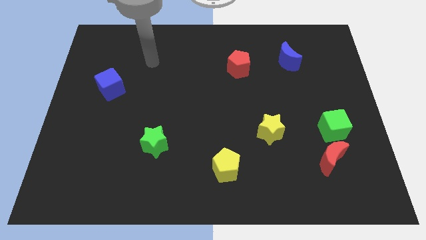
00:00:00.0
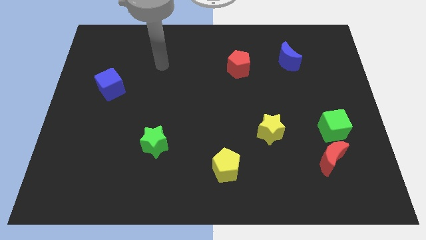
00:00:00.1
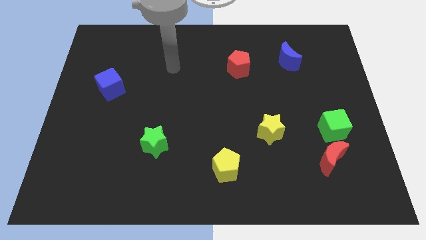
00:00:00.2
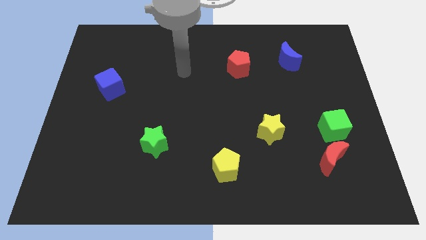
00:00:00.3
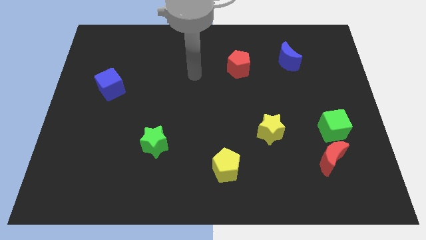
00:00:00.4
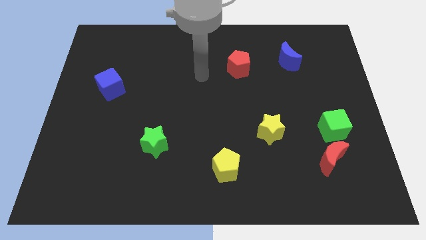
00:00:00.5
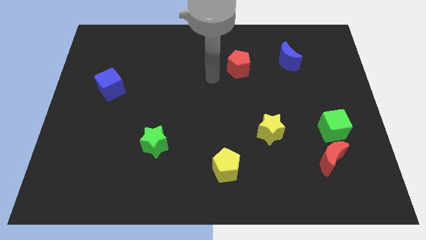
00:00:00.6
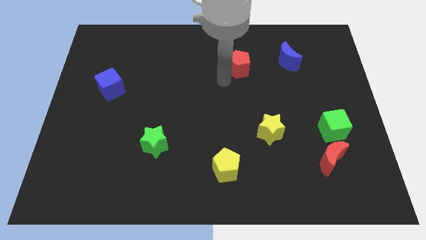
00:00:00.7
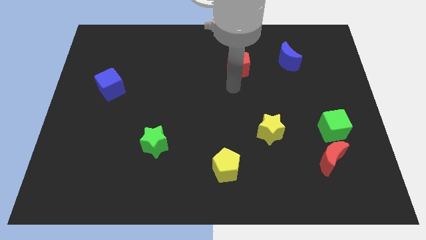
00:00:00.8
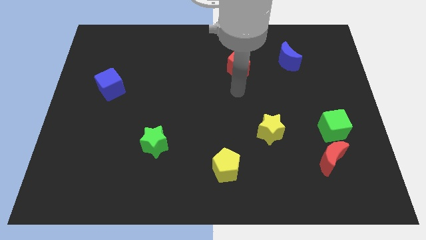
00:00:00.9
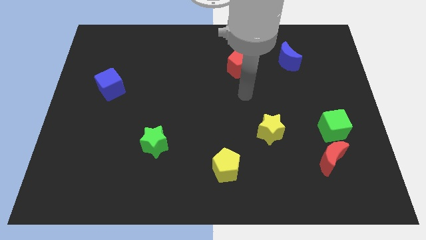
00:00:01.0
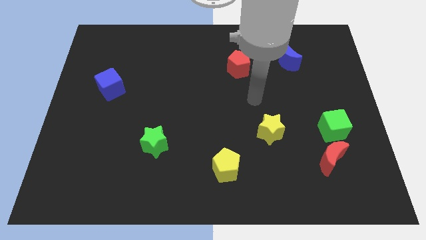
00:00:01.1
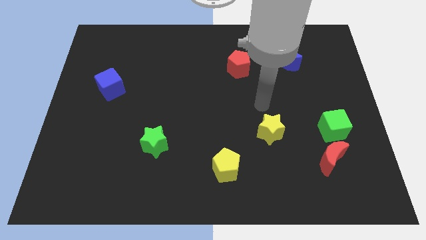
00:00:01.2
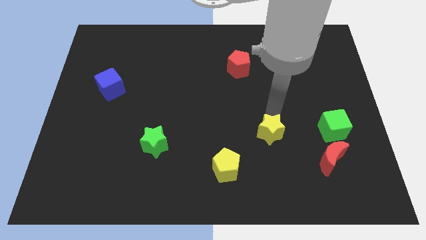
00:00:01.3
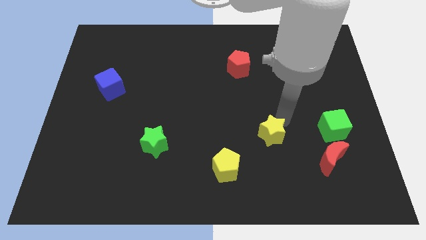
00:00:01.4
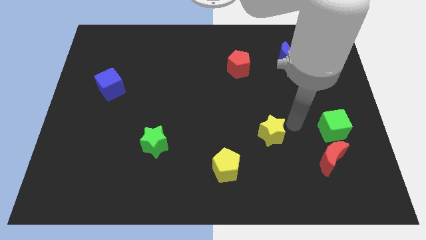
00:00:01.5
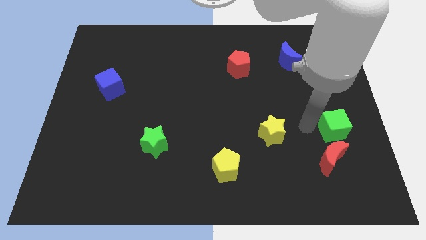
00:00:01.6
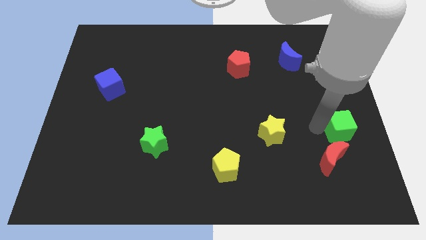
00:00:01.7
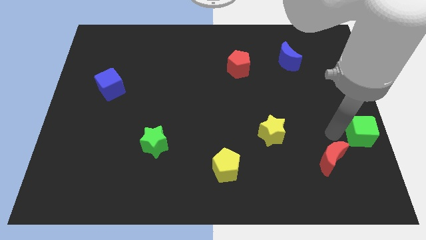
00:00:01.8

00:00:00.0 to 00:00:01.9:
pull the red moon apart from the green cube

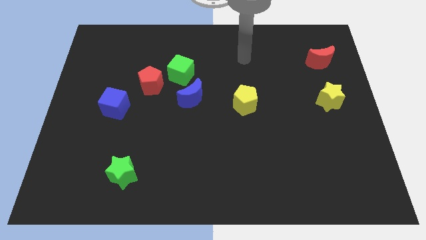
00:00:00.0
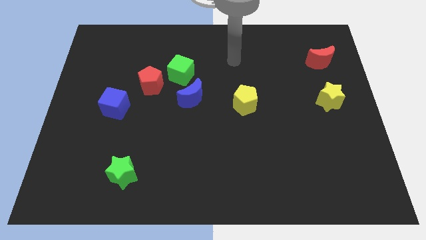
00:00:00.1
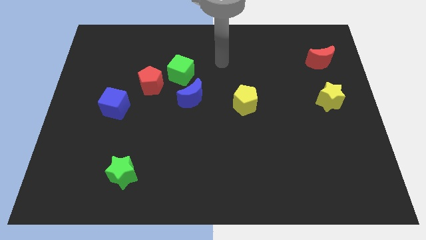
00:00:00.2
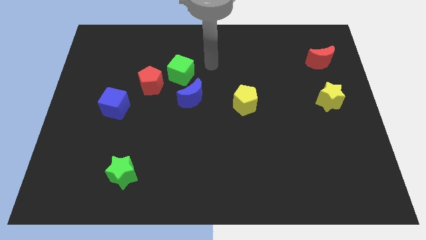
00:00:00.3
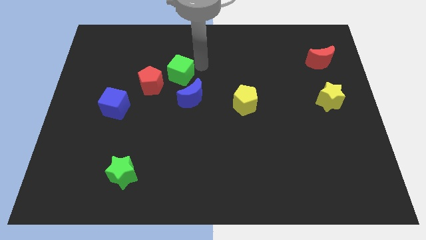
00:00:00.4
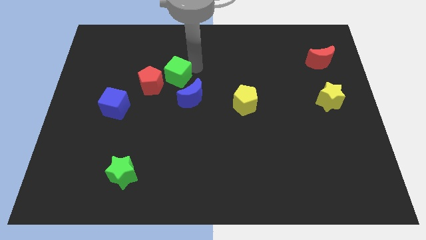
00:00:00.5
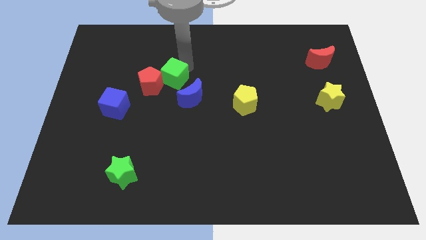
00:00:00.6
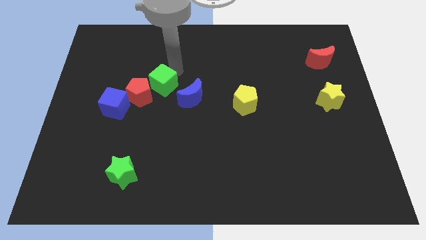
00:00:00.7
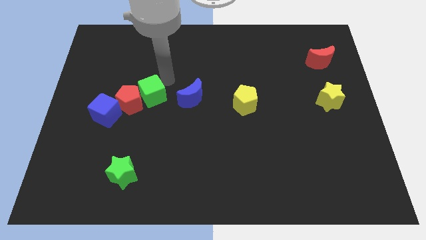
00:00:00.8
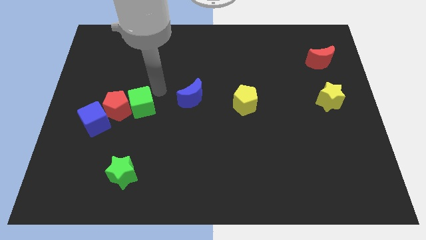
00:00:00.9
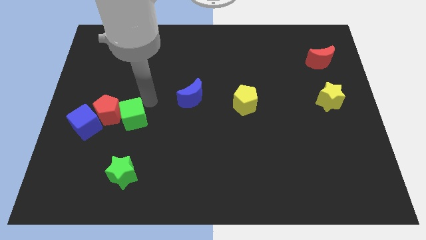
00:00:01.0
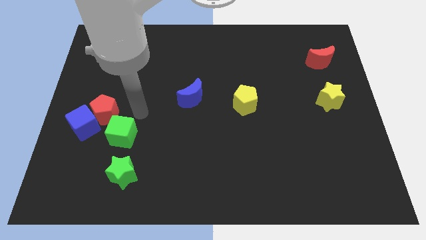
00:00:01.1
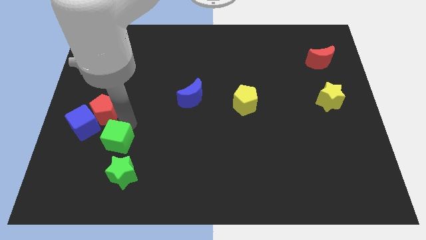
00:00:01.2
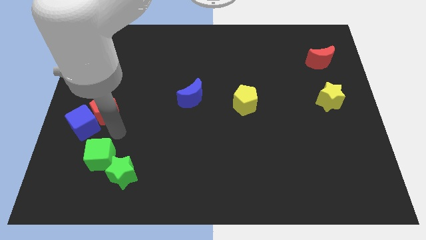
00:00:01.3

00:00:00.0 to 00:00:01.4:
separate the red pentagon from the green cube

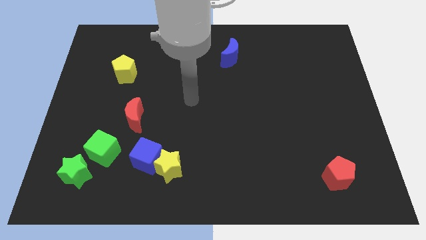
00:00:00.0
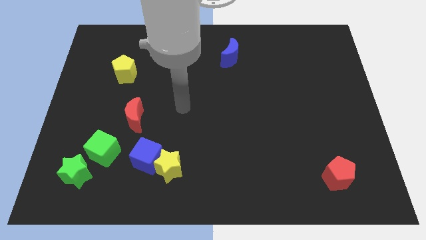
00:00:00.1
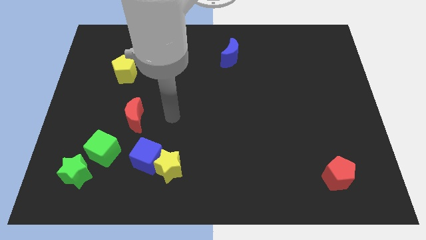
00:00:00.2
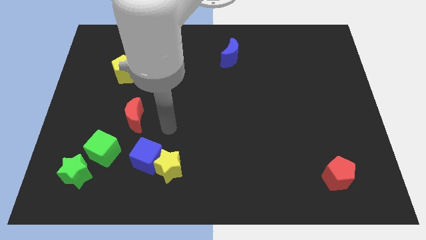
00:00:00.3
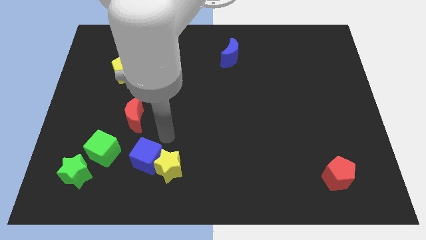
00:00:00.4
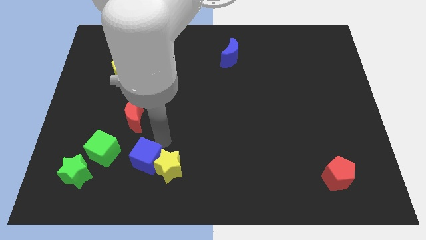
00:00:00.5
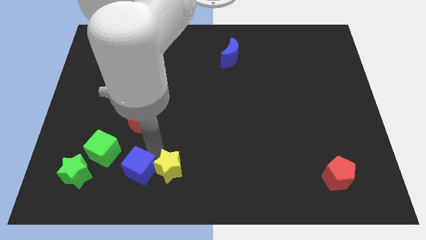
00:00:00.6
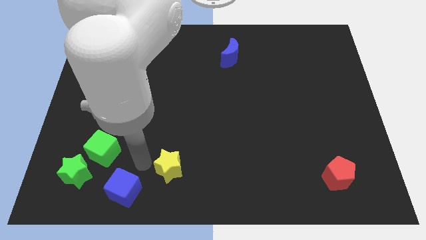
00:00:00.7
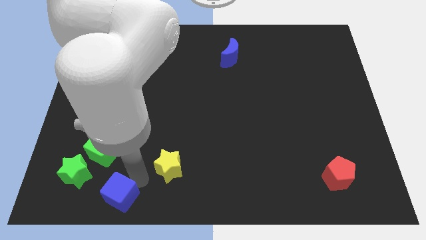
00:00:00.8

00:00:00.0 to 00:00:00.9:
separate the yellow star from the blue cube

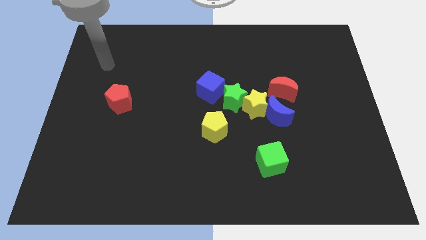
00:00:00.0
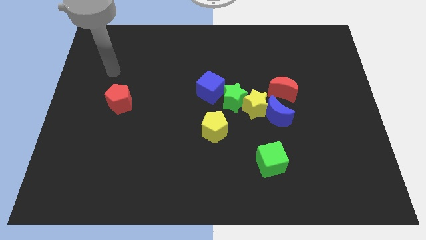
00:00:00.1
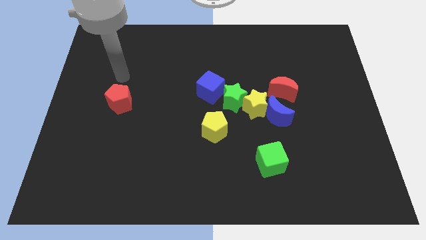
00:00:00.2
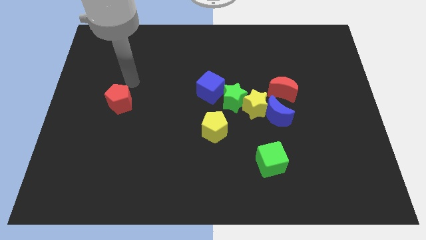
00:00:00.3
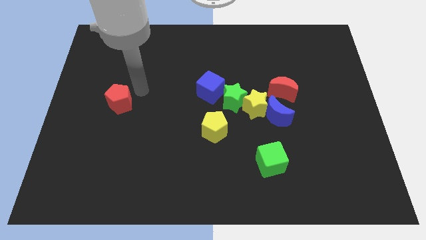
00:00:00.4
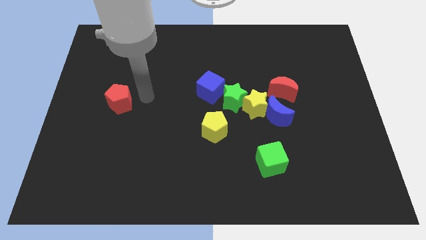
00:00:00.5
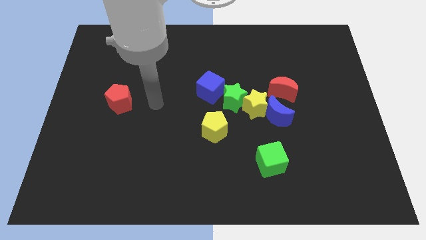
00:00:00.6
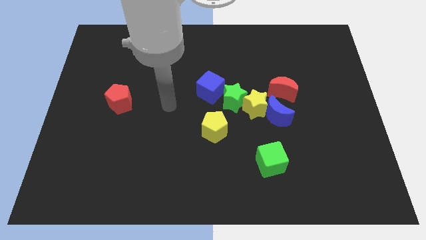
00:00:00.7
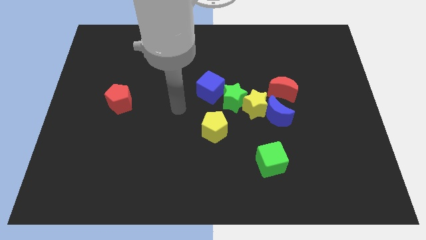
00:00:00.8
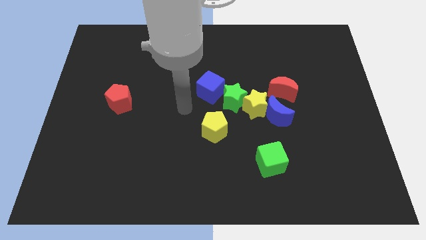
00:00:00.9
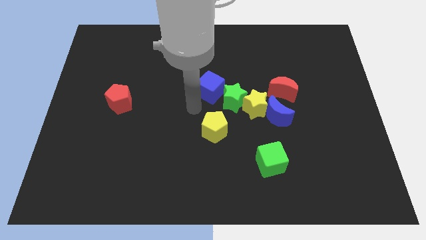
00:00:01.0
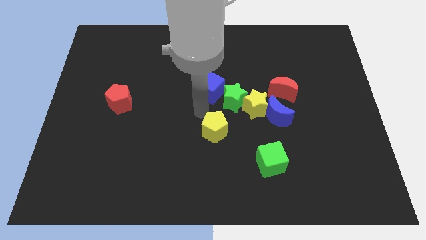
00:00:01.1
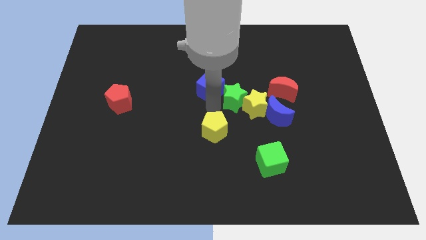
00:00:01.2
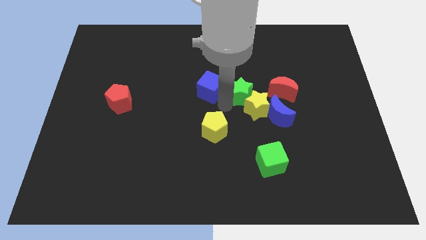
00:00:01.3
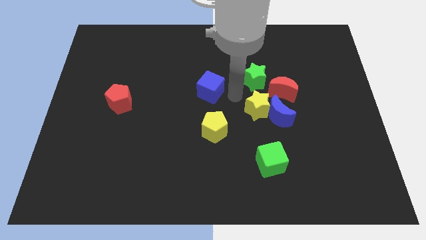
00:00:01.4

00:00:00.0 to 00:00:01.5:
move the blue cube away from the green star

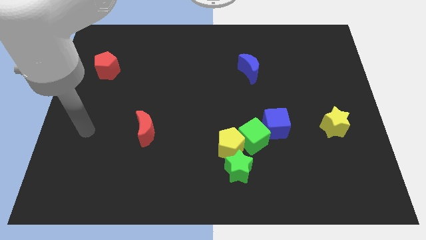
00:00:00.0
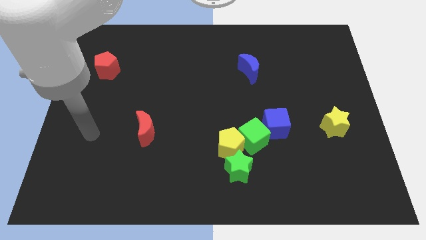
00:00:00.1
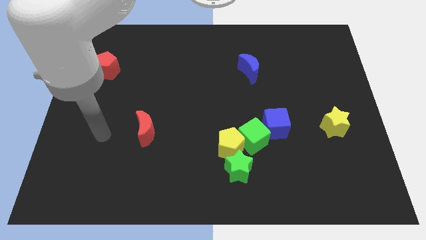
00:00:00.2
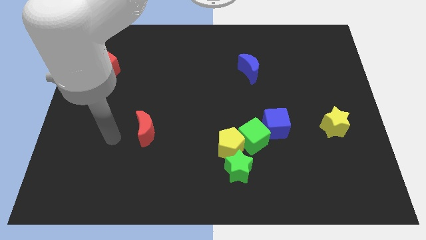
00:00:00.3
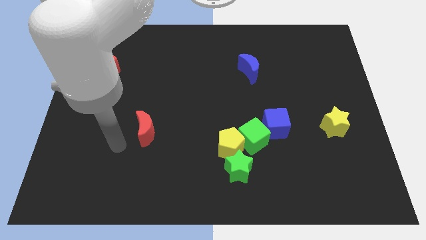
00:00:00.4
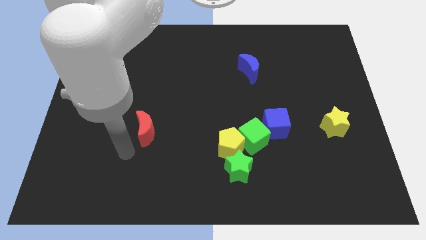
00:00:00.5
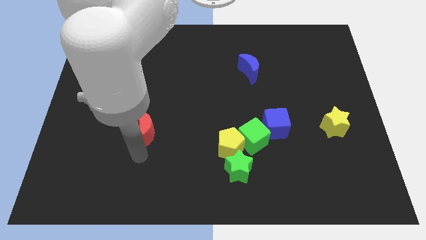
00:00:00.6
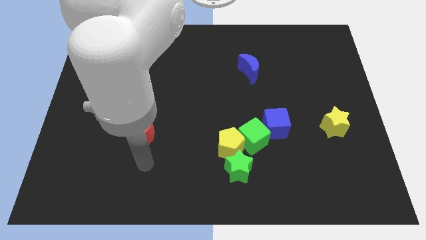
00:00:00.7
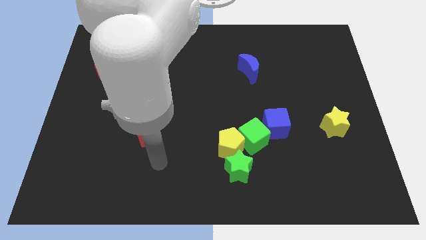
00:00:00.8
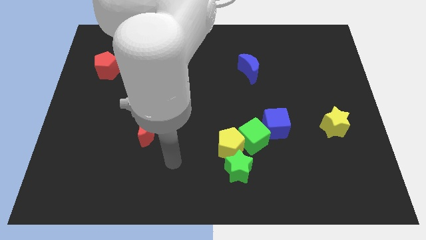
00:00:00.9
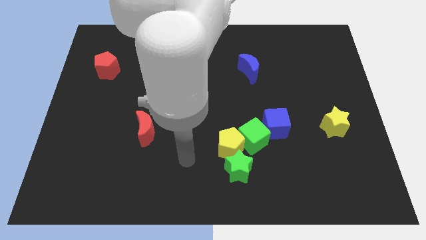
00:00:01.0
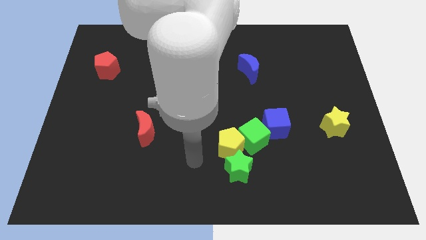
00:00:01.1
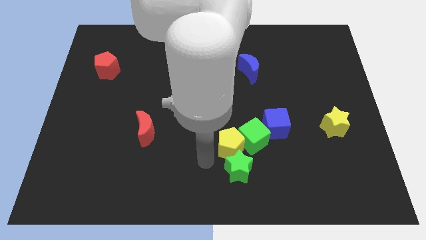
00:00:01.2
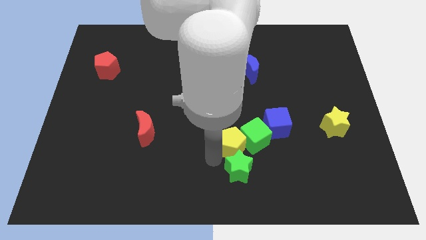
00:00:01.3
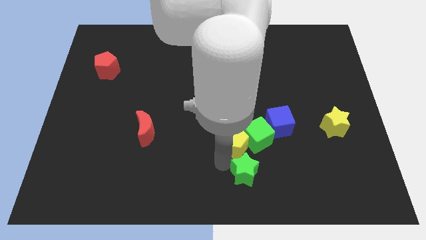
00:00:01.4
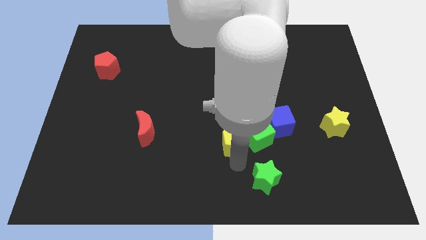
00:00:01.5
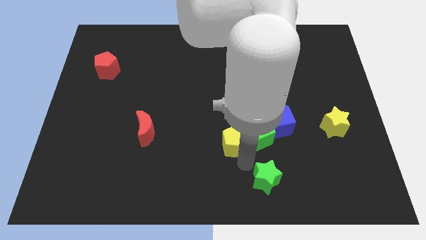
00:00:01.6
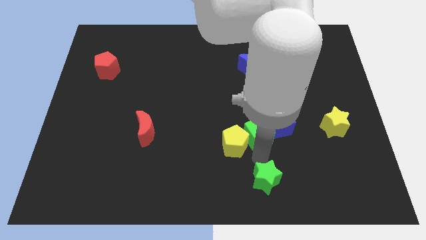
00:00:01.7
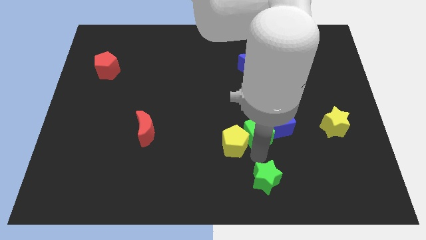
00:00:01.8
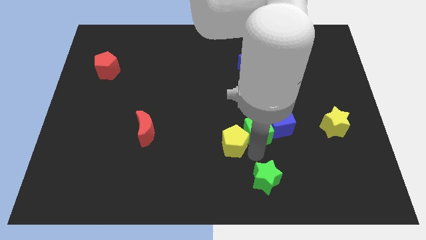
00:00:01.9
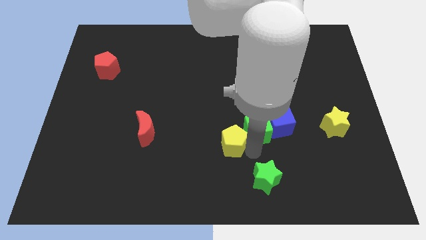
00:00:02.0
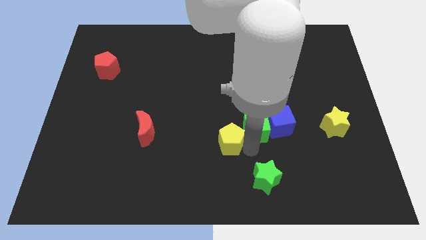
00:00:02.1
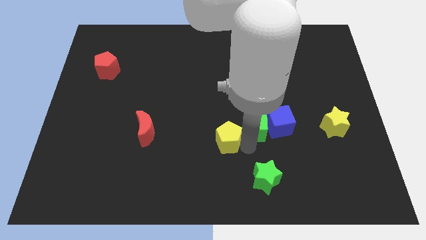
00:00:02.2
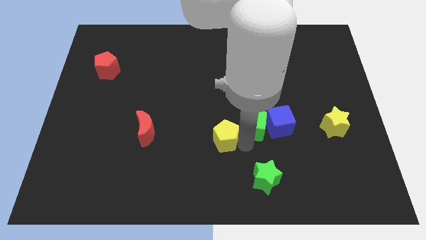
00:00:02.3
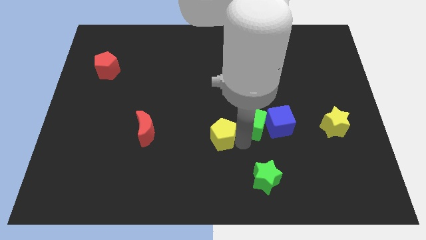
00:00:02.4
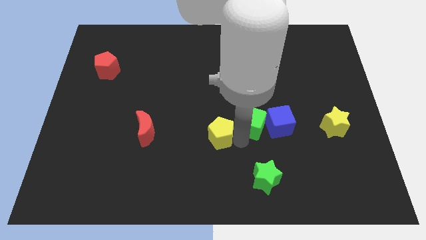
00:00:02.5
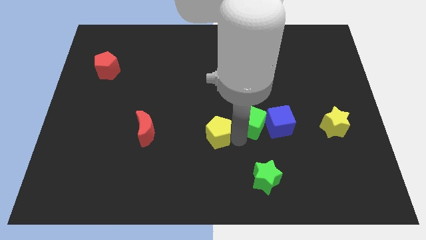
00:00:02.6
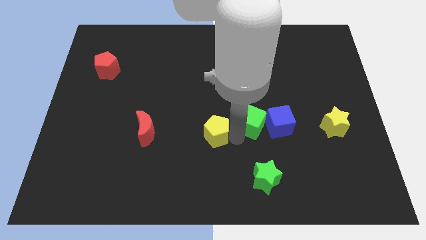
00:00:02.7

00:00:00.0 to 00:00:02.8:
separate the yellow pentagon from the green cube and green star

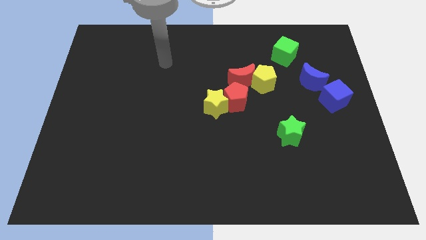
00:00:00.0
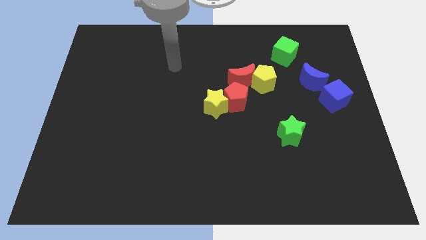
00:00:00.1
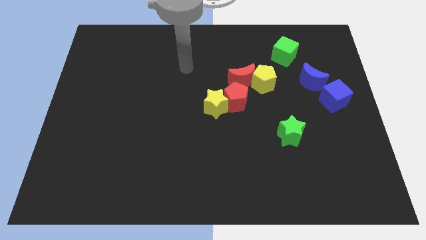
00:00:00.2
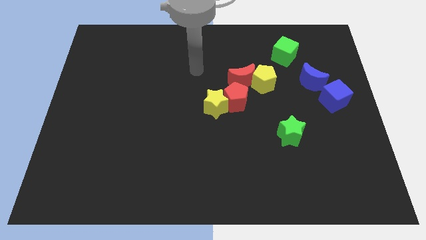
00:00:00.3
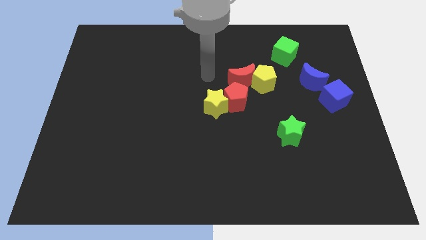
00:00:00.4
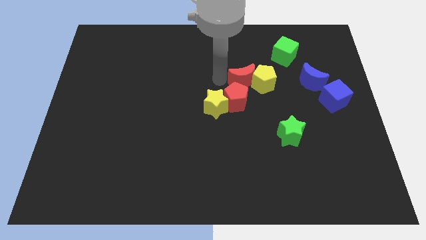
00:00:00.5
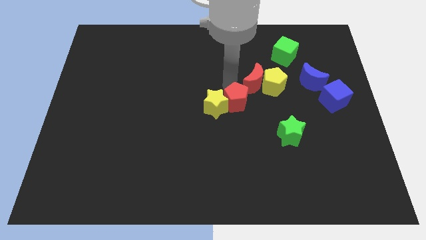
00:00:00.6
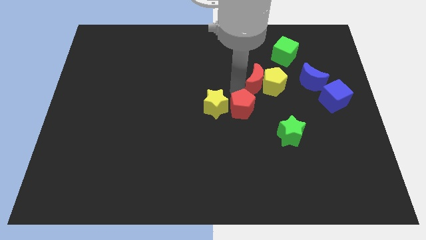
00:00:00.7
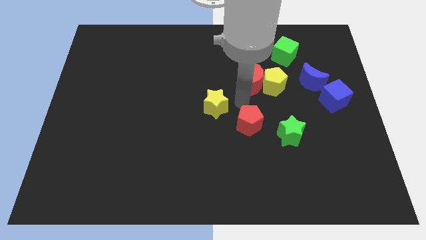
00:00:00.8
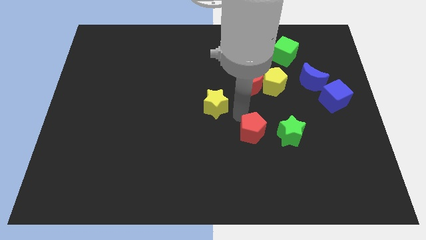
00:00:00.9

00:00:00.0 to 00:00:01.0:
pull the yellow star apart from the red pentagon
